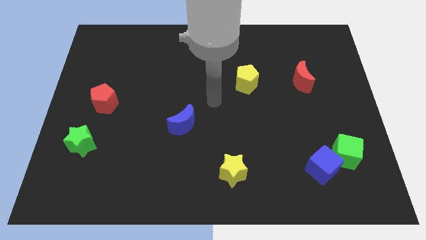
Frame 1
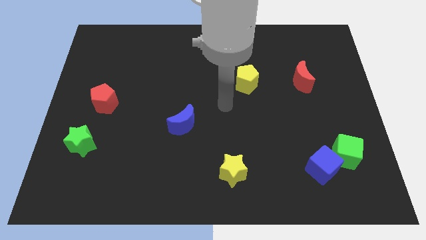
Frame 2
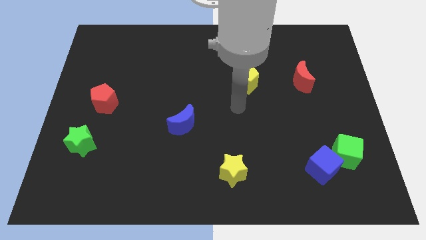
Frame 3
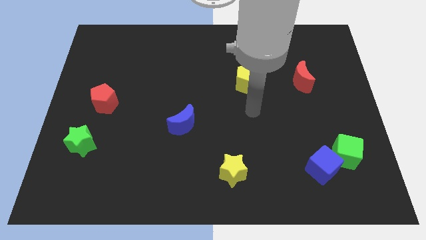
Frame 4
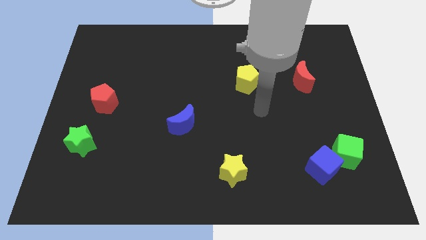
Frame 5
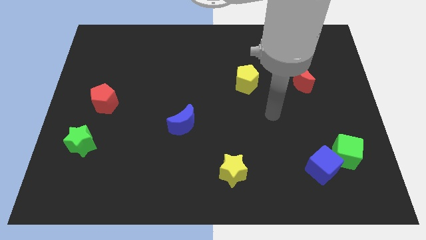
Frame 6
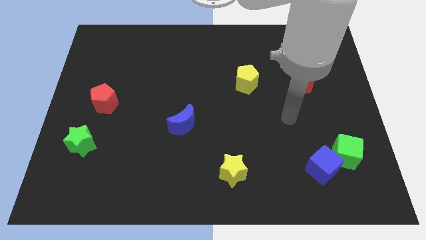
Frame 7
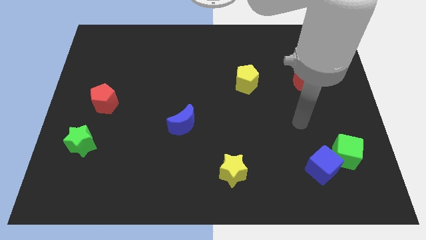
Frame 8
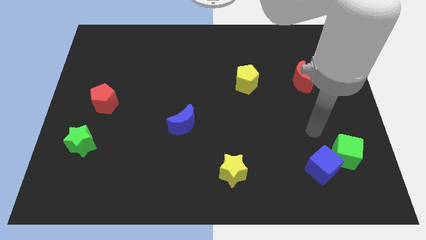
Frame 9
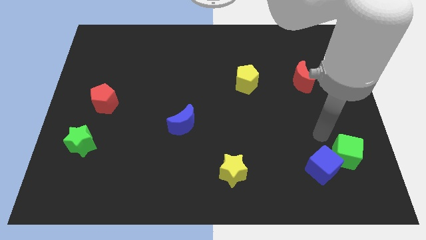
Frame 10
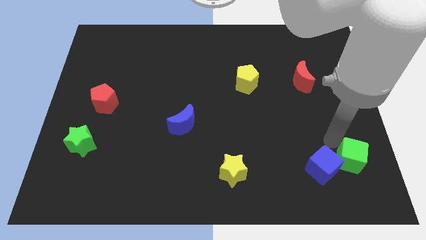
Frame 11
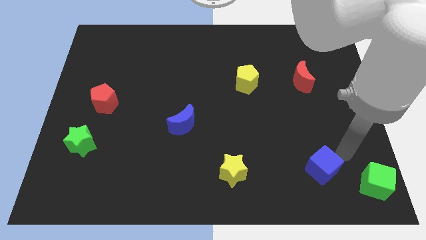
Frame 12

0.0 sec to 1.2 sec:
move the blue cube away from the green cube

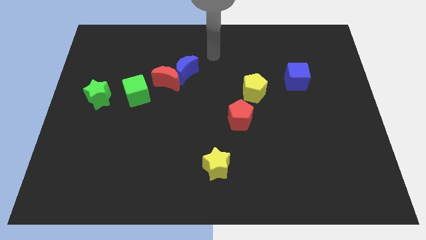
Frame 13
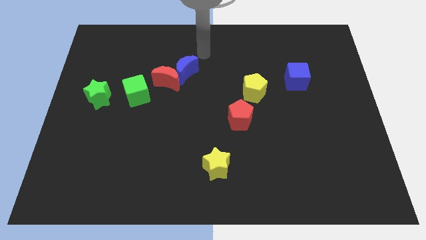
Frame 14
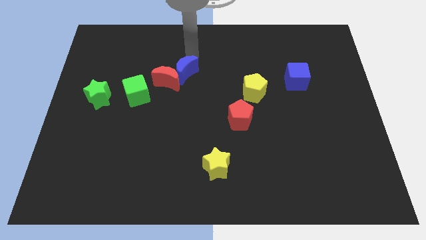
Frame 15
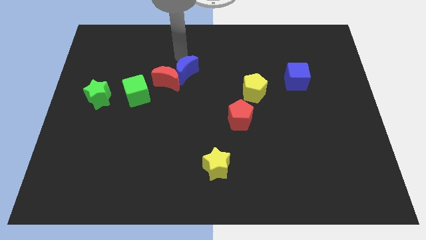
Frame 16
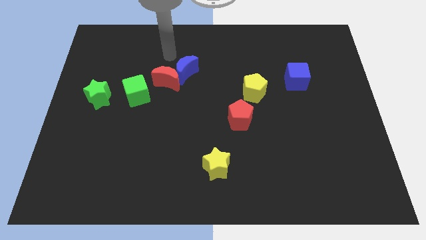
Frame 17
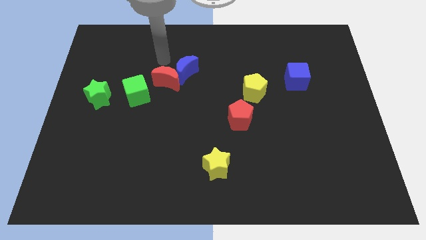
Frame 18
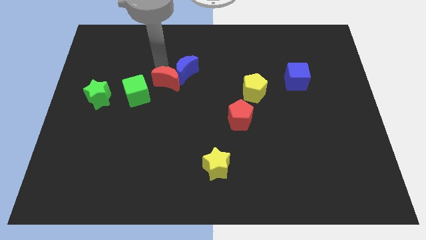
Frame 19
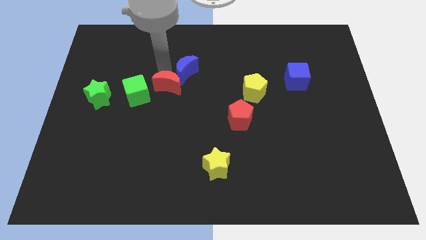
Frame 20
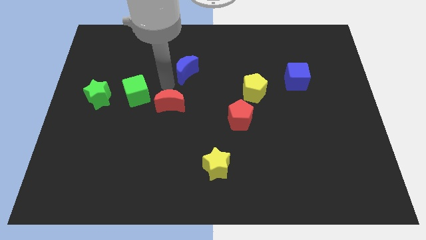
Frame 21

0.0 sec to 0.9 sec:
separate the blue moon from the red moon

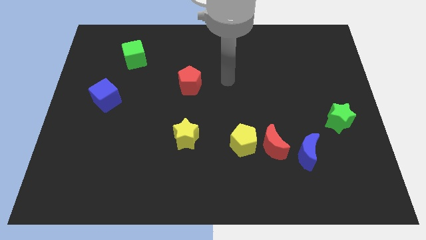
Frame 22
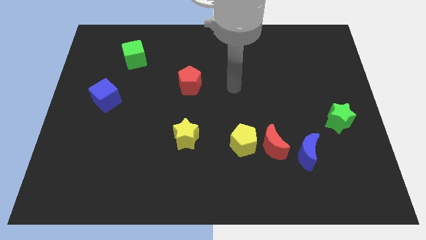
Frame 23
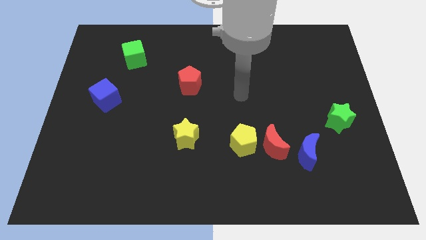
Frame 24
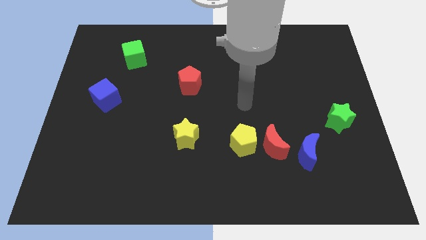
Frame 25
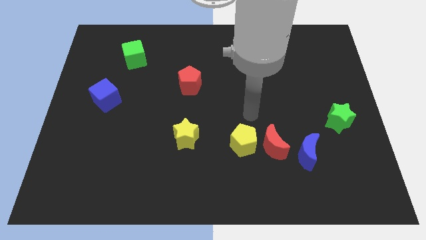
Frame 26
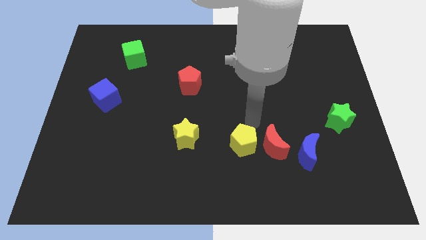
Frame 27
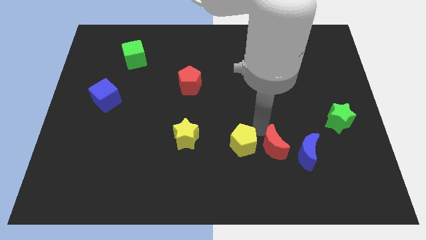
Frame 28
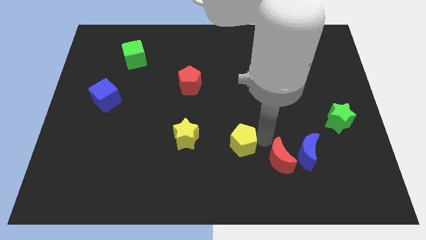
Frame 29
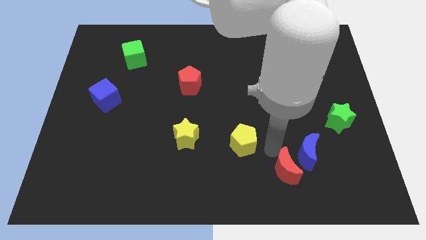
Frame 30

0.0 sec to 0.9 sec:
pull the yellow pentagon apart from the red moon

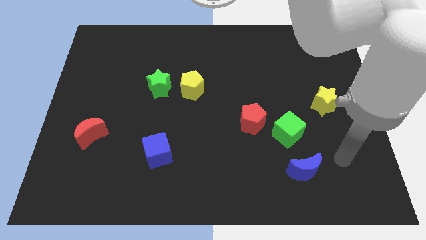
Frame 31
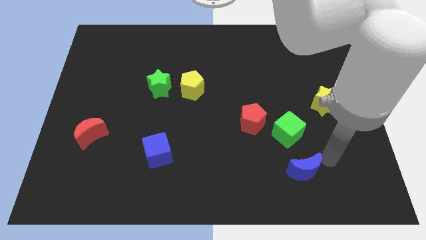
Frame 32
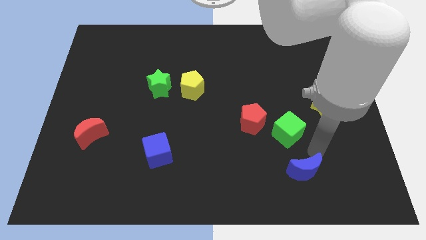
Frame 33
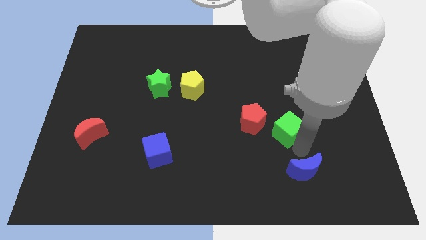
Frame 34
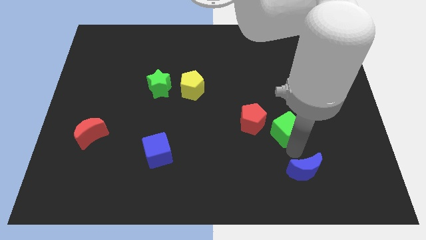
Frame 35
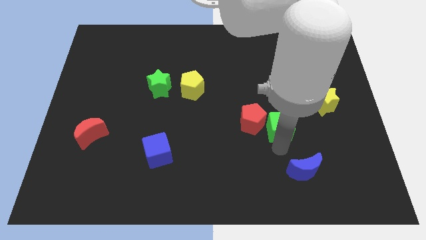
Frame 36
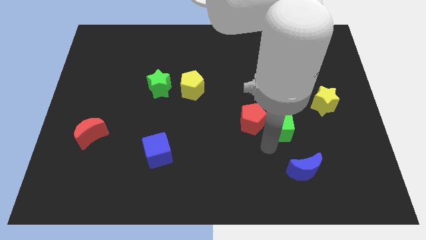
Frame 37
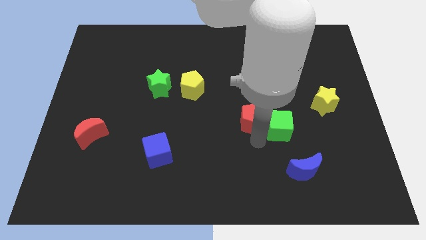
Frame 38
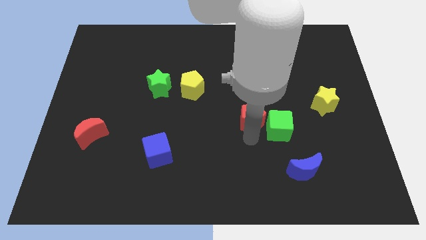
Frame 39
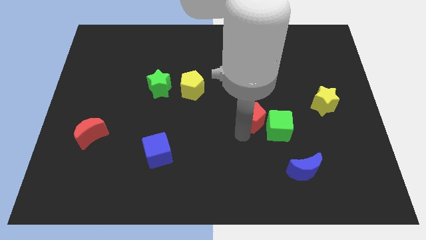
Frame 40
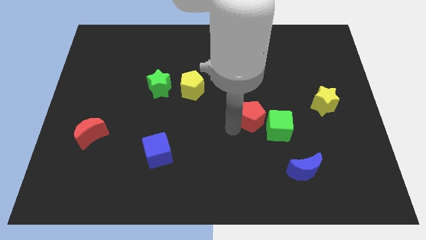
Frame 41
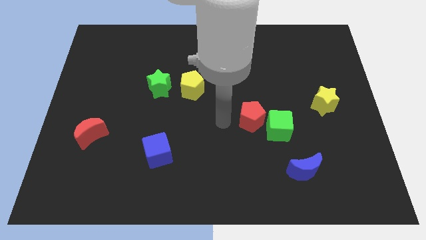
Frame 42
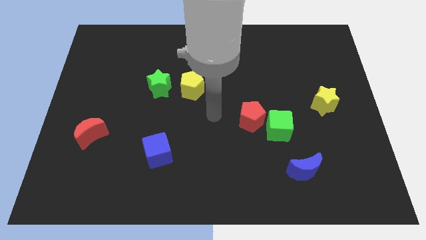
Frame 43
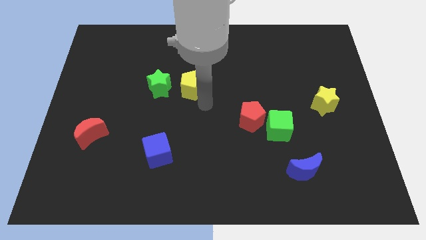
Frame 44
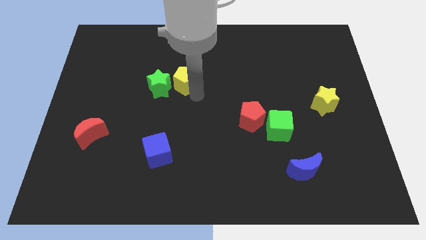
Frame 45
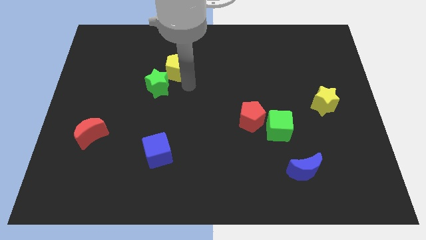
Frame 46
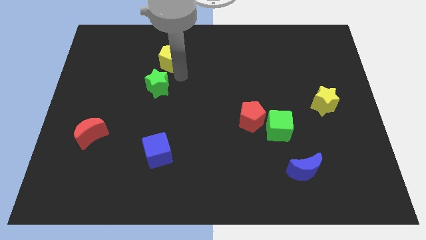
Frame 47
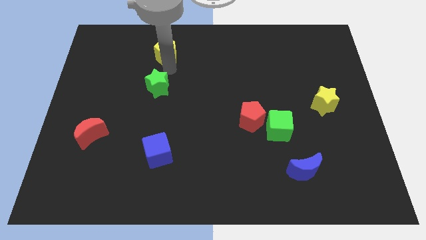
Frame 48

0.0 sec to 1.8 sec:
separate the green star from the yellow pentagon

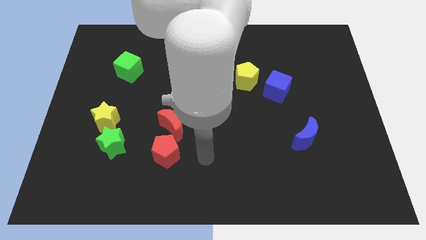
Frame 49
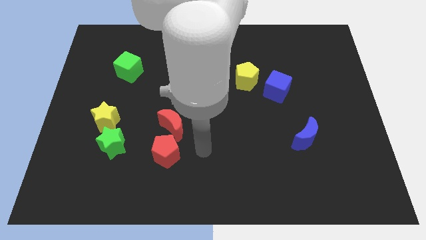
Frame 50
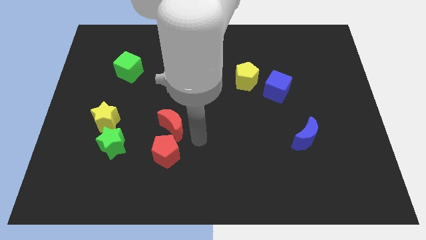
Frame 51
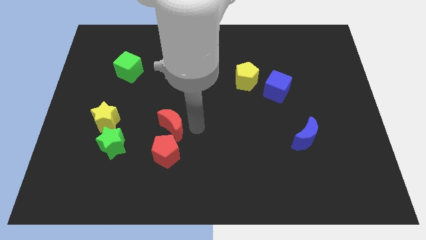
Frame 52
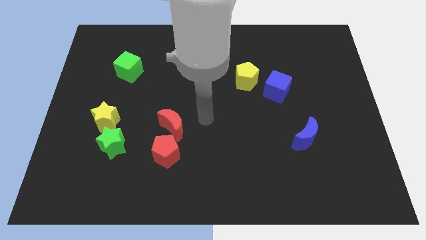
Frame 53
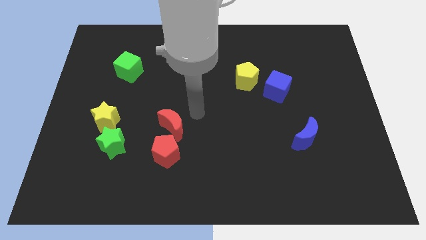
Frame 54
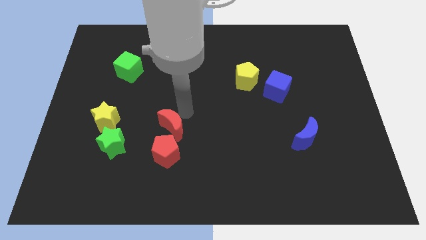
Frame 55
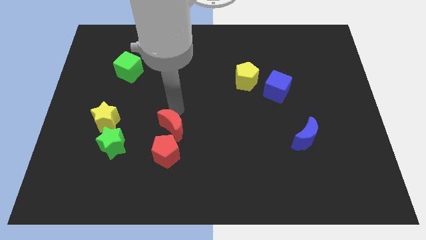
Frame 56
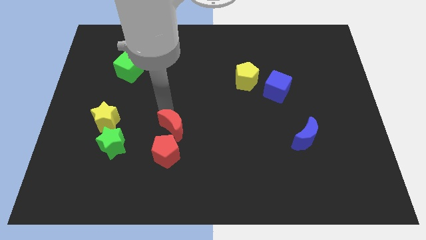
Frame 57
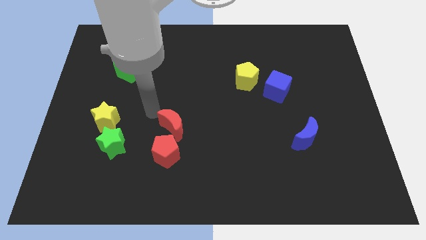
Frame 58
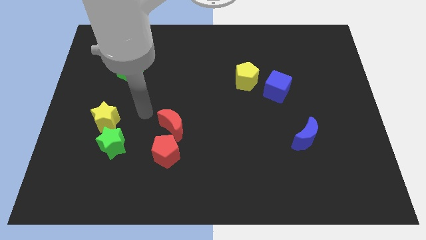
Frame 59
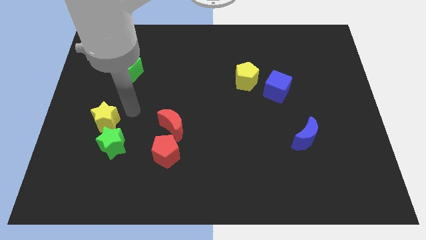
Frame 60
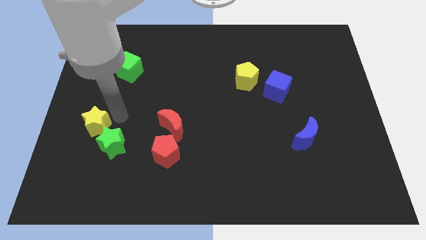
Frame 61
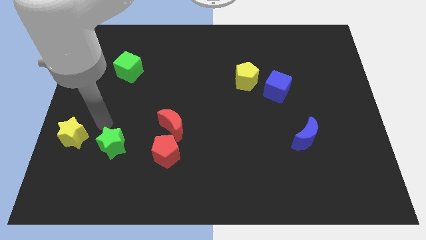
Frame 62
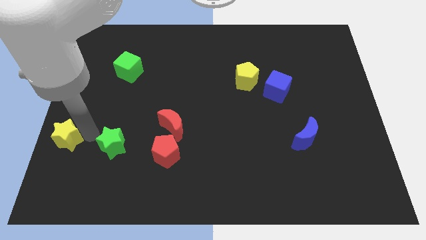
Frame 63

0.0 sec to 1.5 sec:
pull the green star apart from the yellow star

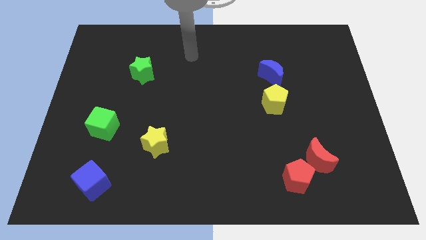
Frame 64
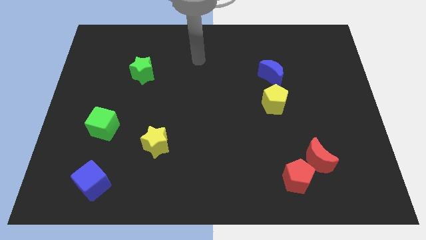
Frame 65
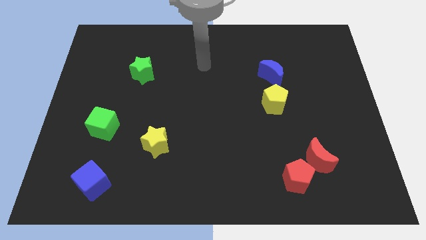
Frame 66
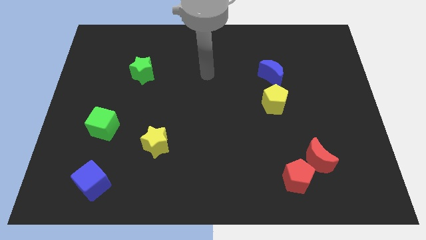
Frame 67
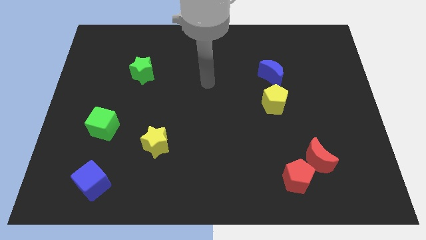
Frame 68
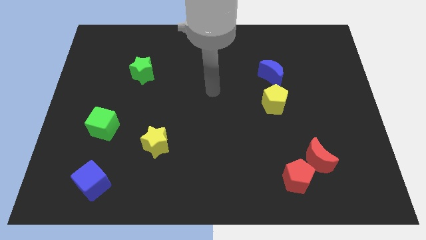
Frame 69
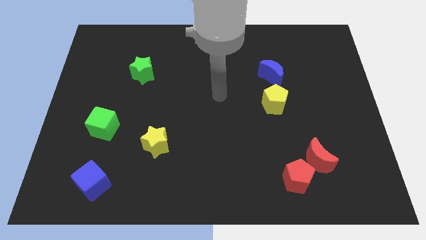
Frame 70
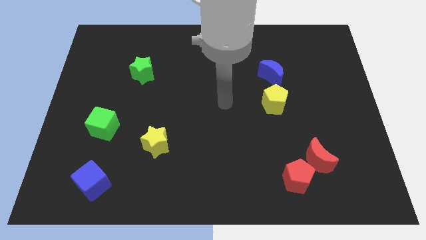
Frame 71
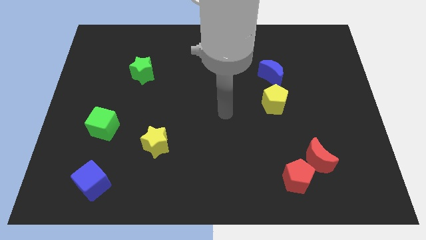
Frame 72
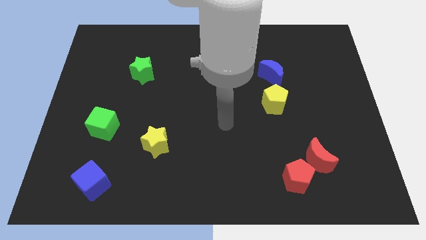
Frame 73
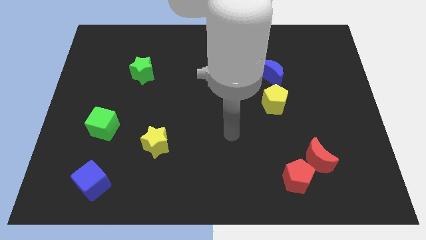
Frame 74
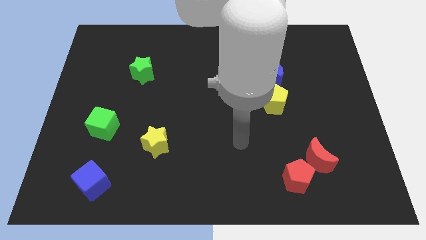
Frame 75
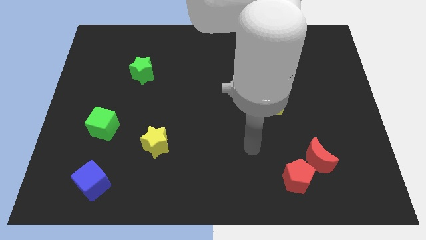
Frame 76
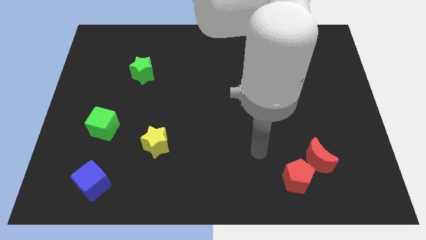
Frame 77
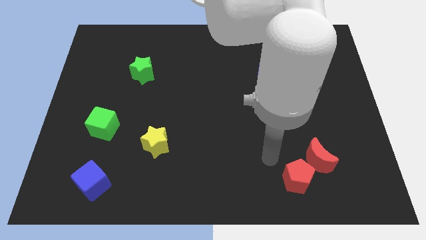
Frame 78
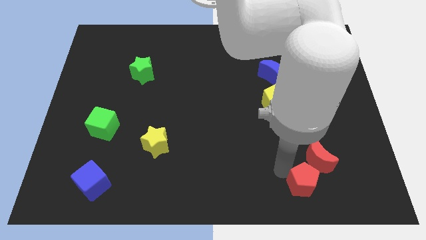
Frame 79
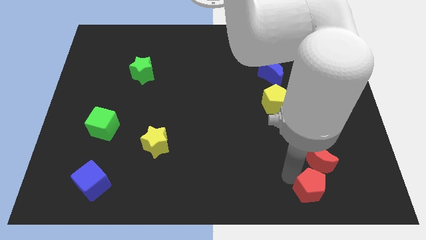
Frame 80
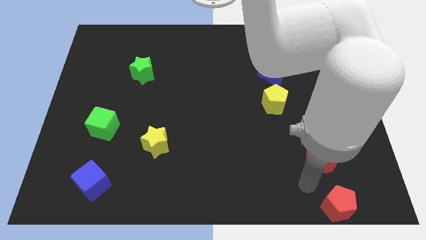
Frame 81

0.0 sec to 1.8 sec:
move the red moon away from the red pentagon

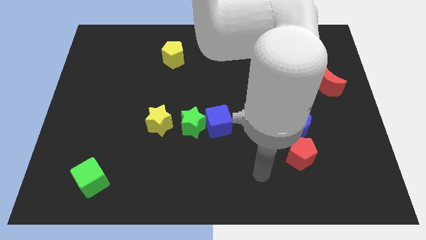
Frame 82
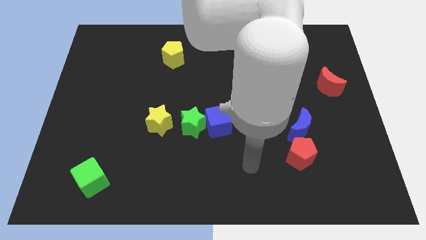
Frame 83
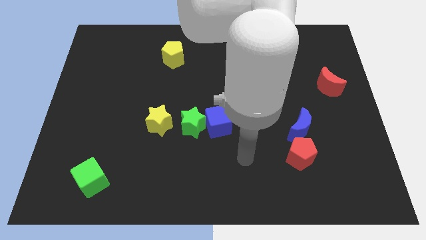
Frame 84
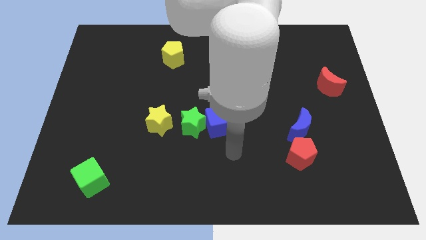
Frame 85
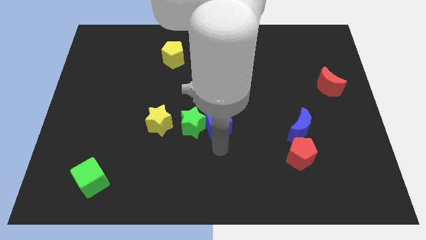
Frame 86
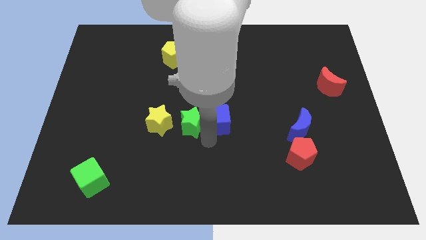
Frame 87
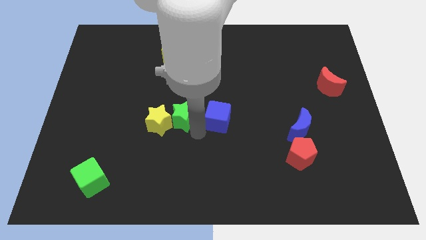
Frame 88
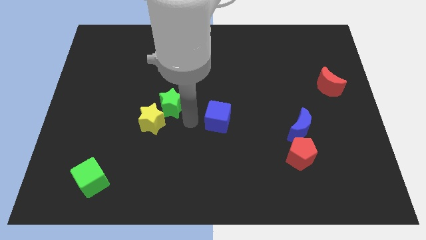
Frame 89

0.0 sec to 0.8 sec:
move the blue cube away from the green star

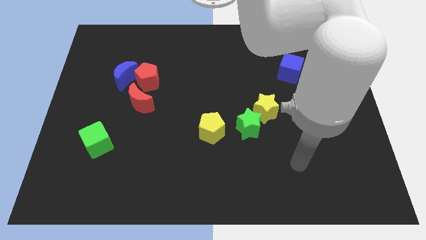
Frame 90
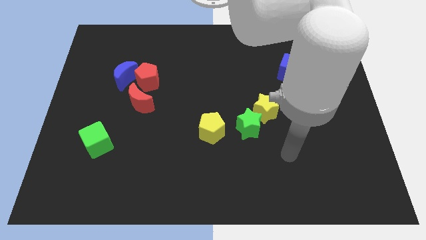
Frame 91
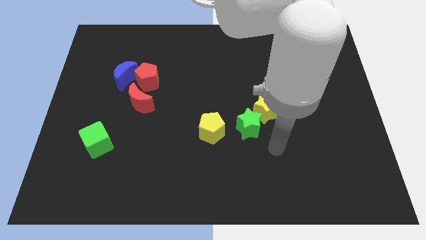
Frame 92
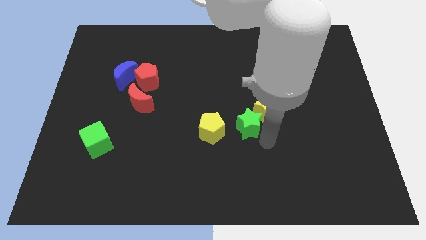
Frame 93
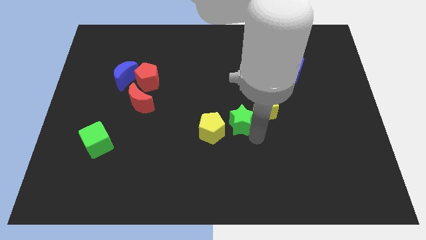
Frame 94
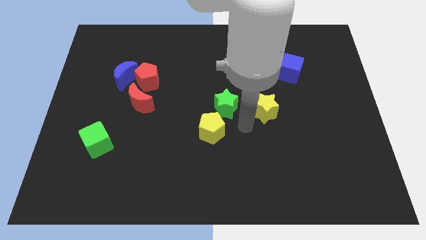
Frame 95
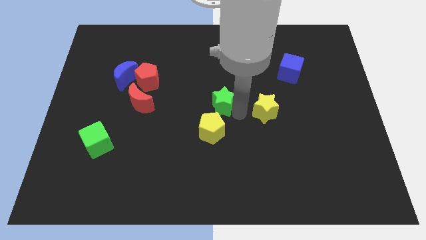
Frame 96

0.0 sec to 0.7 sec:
move the yellow star away from the green star
